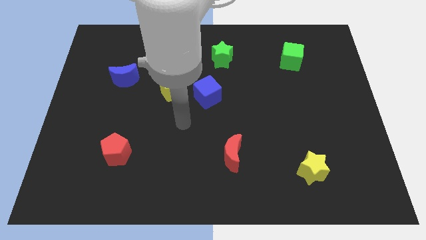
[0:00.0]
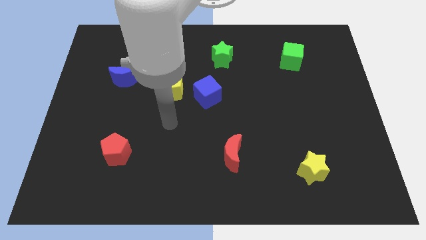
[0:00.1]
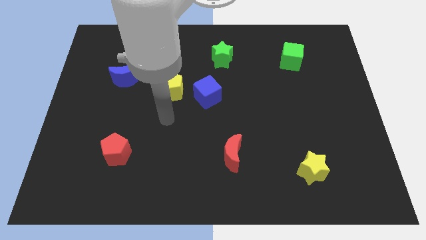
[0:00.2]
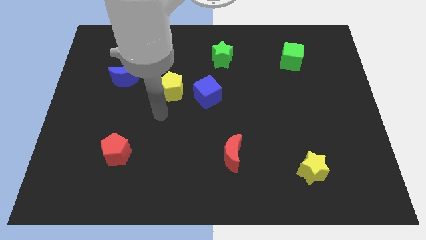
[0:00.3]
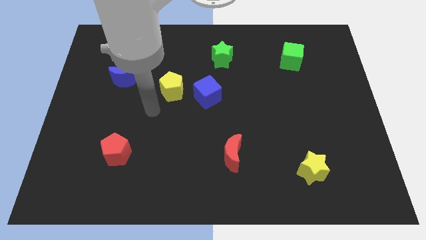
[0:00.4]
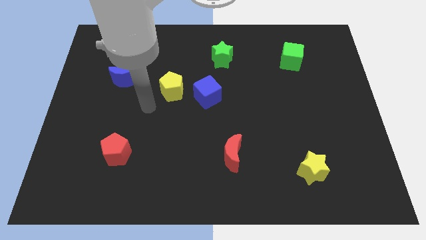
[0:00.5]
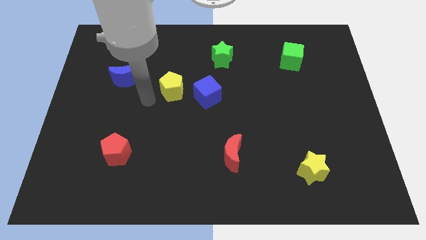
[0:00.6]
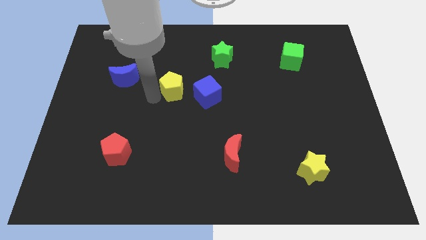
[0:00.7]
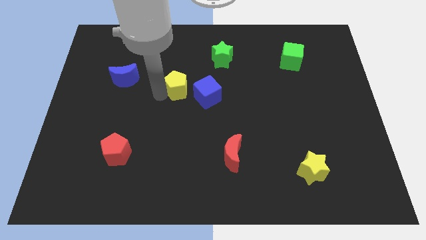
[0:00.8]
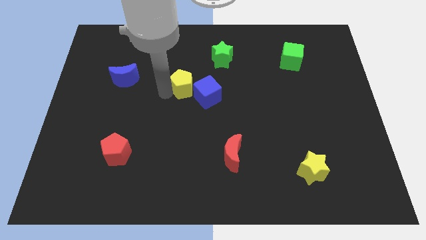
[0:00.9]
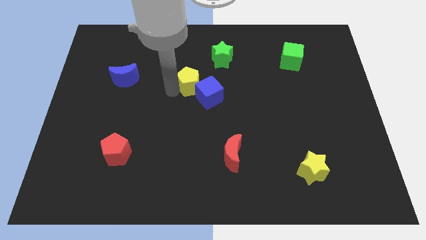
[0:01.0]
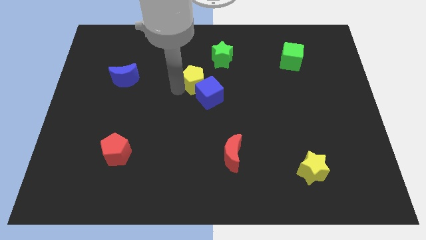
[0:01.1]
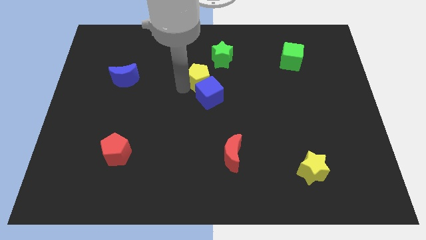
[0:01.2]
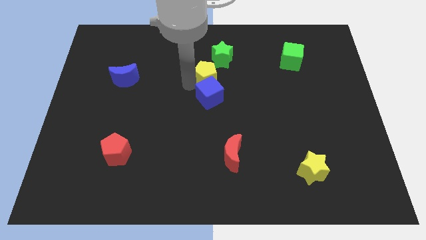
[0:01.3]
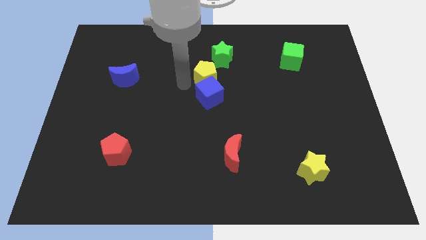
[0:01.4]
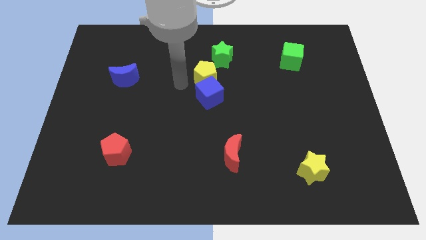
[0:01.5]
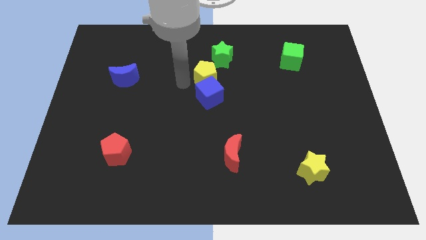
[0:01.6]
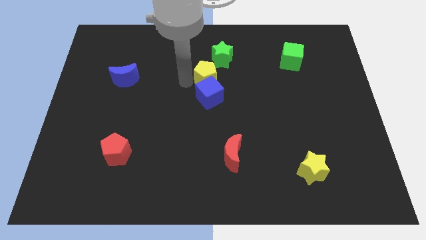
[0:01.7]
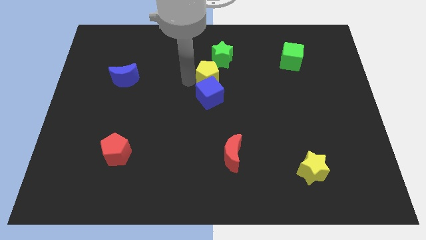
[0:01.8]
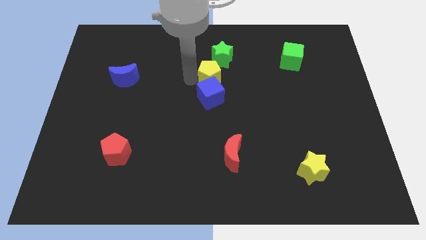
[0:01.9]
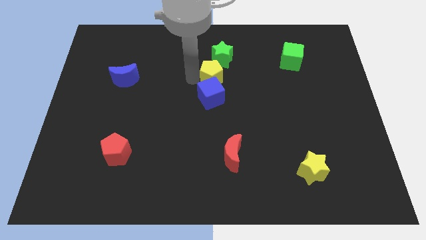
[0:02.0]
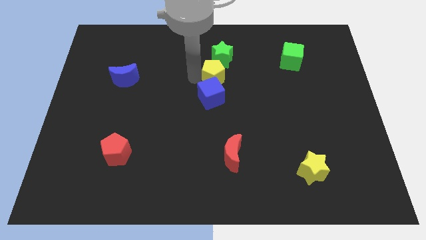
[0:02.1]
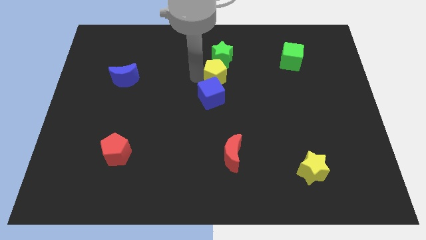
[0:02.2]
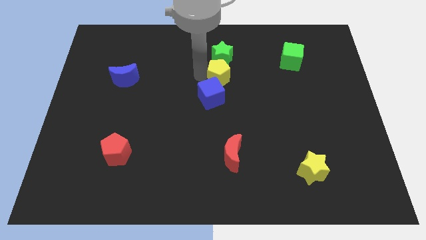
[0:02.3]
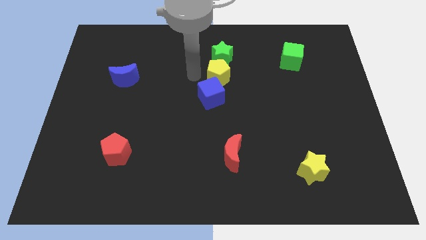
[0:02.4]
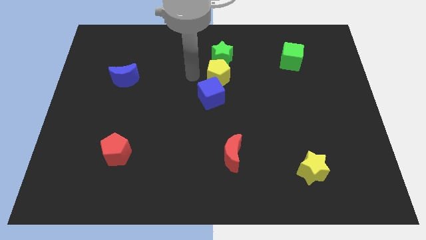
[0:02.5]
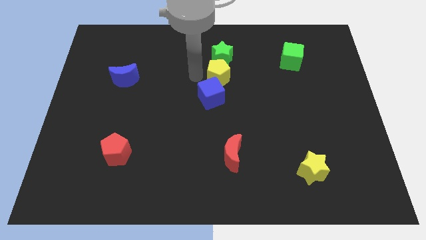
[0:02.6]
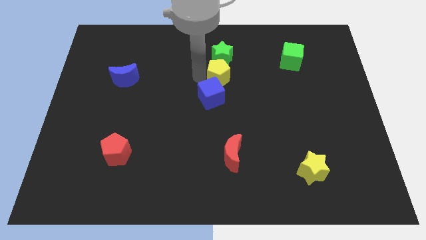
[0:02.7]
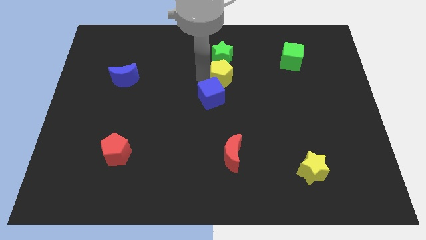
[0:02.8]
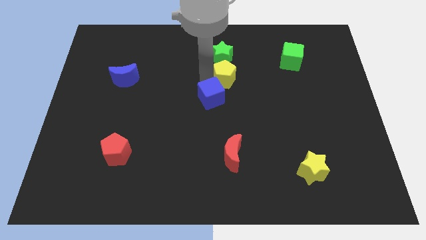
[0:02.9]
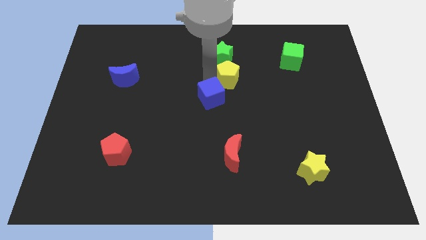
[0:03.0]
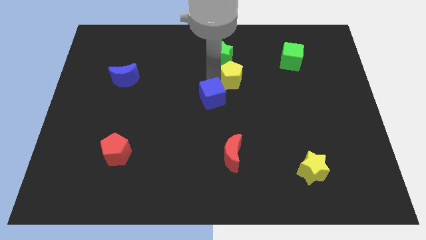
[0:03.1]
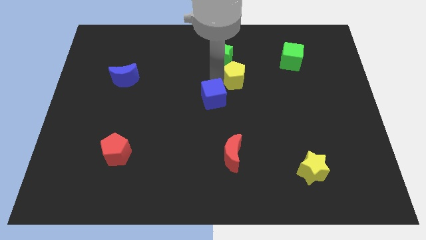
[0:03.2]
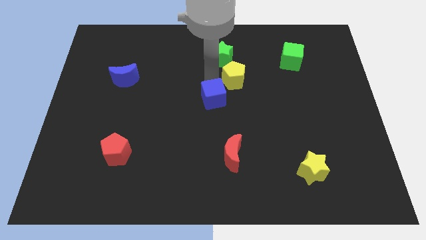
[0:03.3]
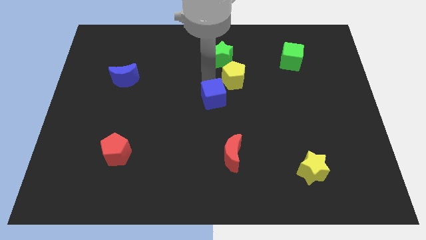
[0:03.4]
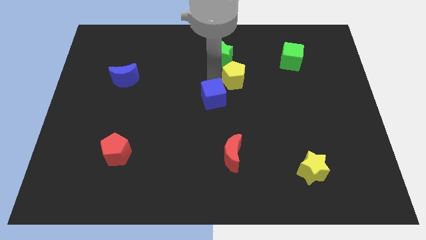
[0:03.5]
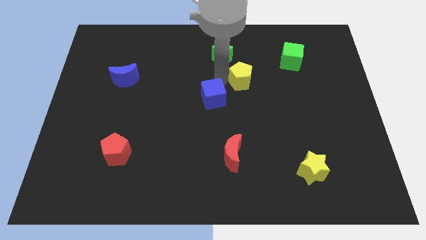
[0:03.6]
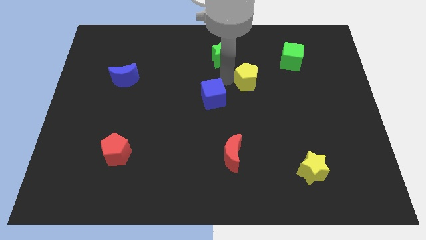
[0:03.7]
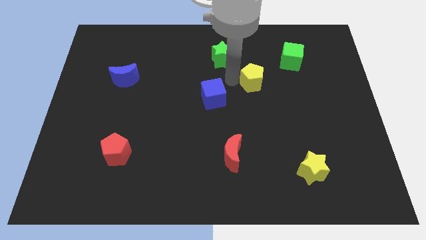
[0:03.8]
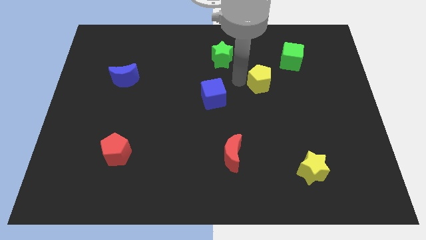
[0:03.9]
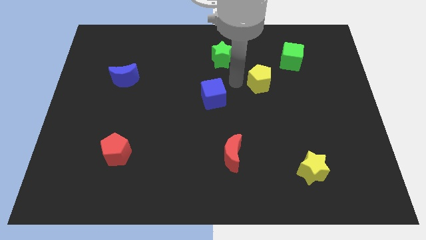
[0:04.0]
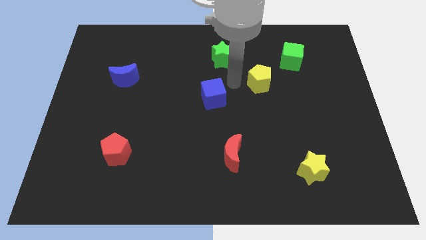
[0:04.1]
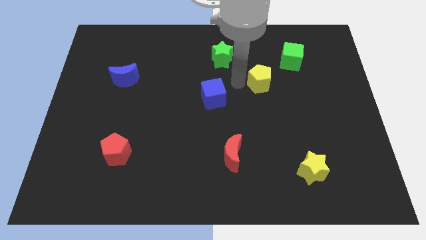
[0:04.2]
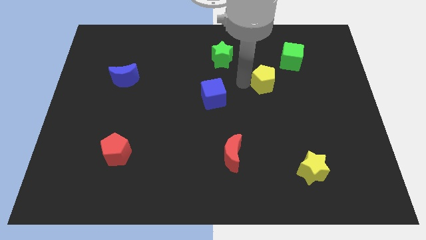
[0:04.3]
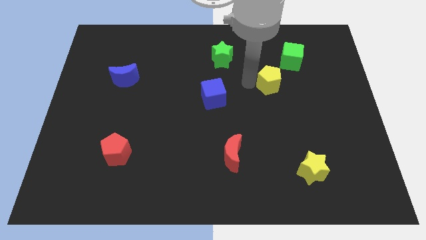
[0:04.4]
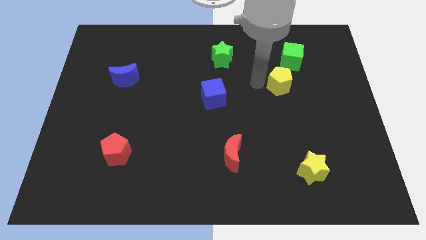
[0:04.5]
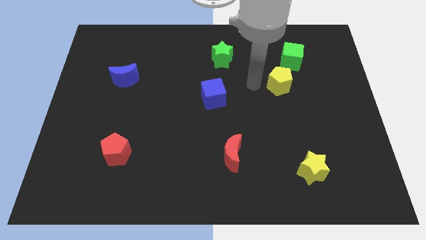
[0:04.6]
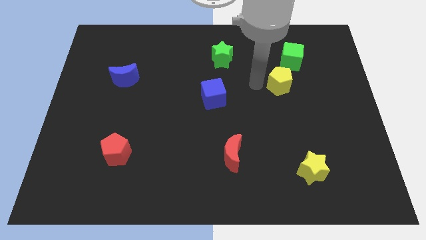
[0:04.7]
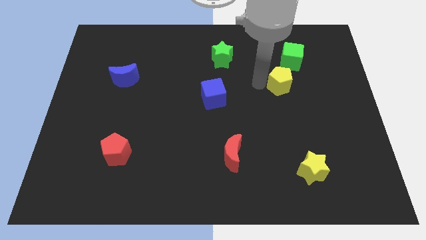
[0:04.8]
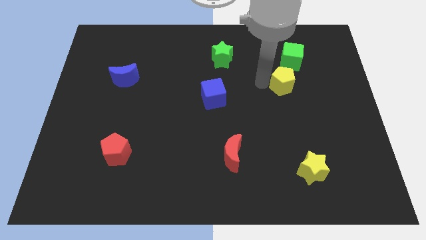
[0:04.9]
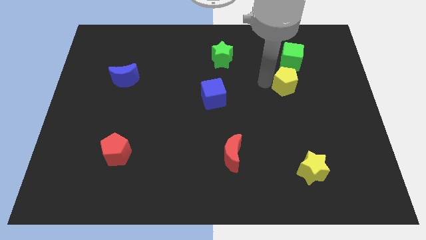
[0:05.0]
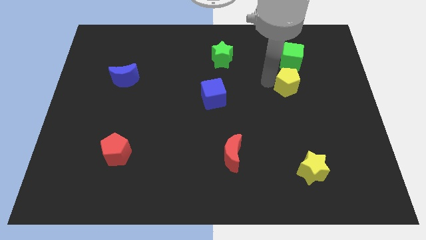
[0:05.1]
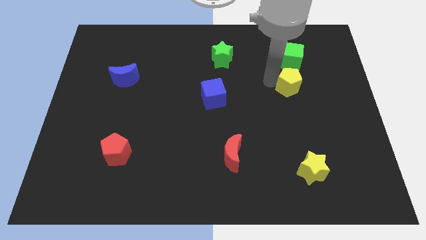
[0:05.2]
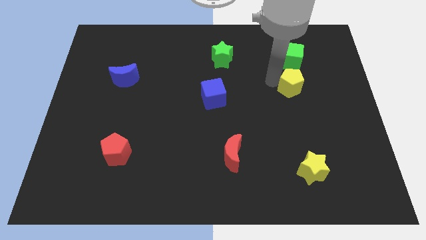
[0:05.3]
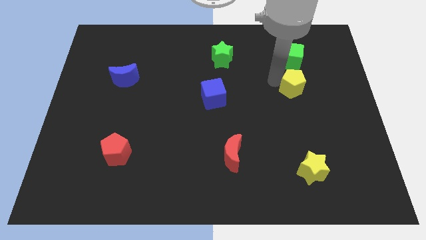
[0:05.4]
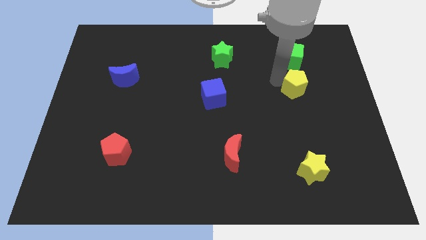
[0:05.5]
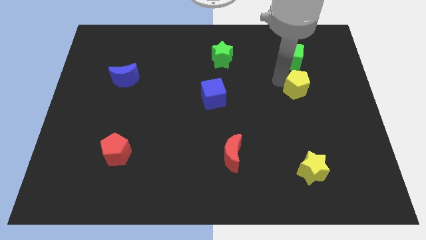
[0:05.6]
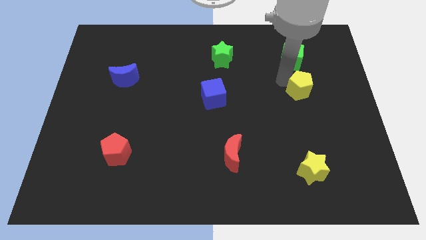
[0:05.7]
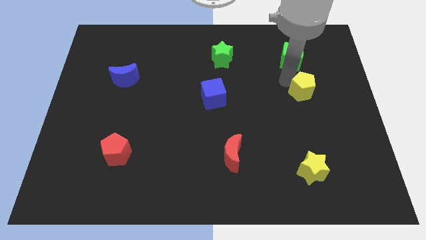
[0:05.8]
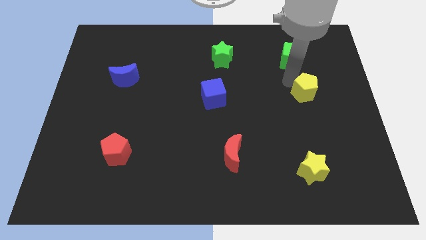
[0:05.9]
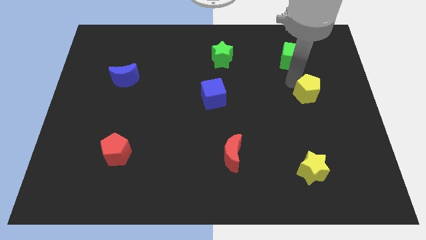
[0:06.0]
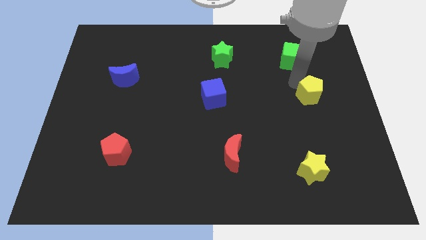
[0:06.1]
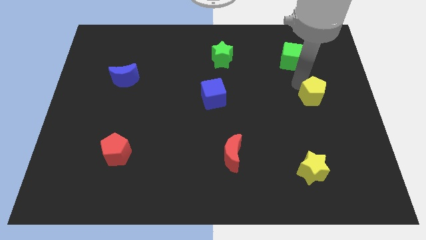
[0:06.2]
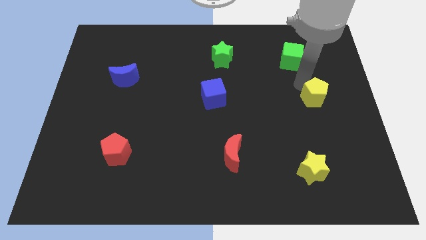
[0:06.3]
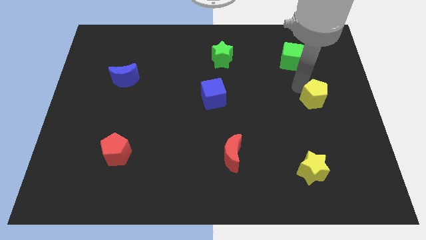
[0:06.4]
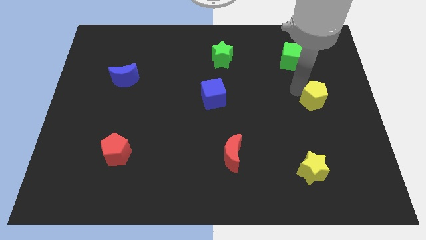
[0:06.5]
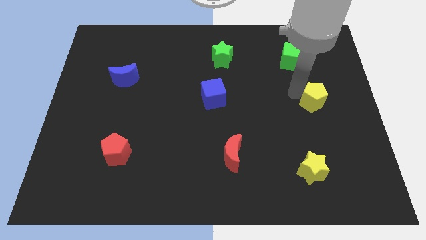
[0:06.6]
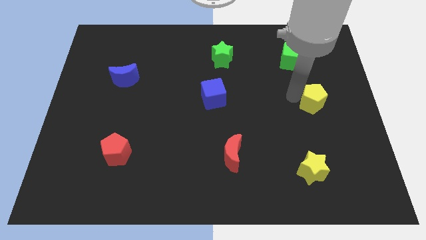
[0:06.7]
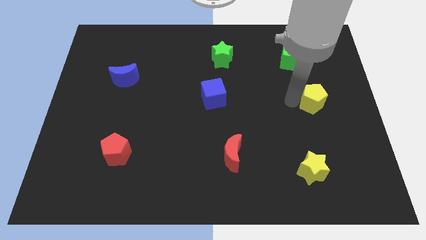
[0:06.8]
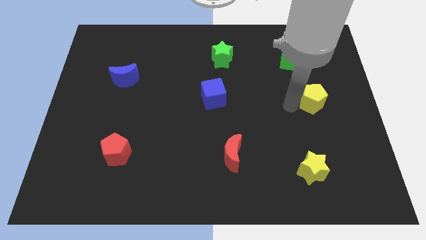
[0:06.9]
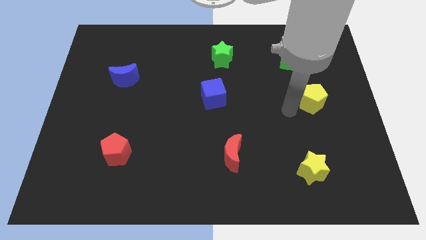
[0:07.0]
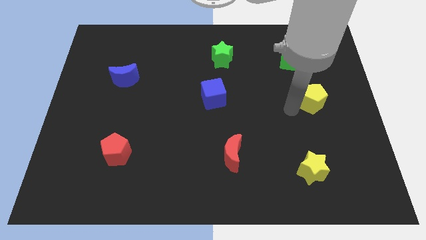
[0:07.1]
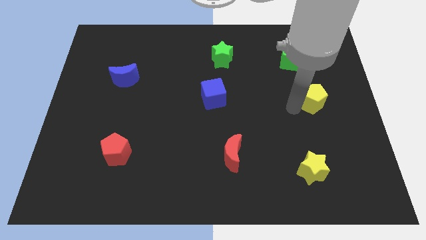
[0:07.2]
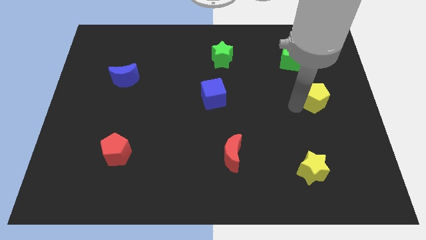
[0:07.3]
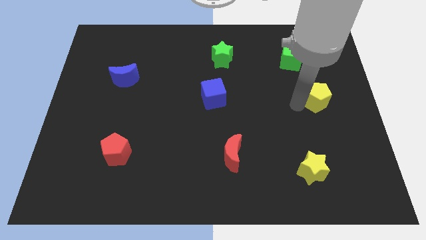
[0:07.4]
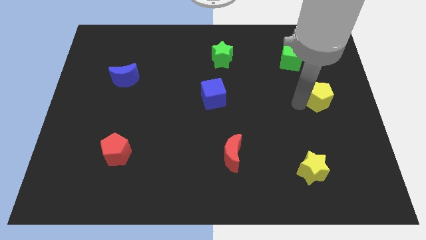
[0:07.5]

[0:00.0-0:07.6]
push the yellow pentagon to the right side of the board
